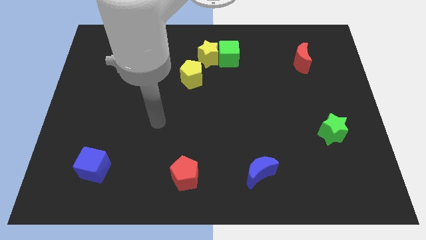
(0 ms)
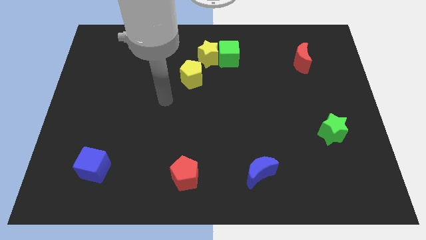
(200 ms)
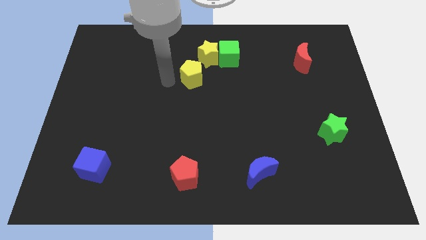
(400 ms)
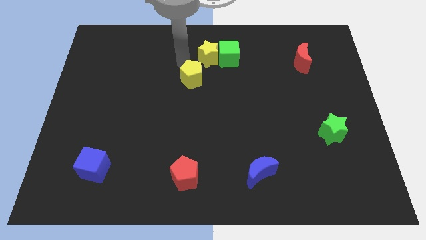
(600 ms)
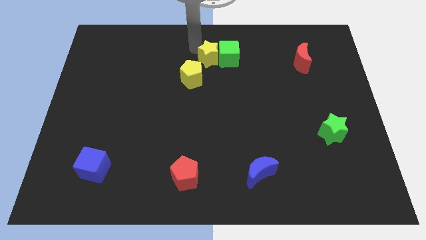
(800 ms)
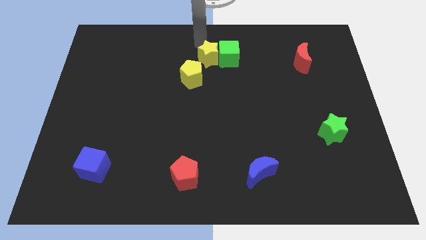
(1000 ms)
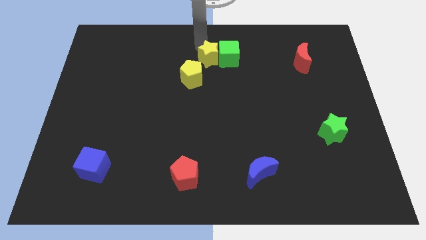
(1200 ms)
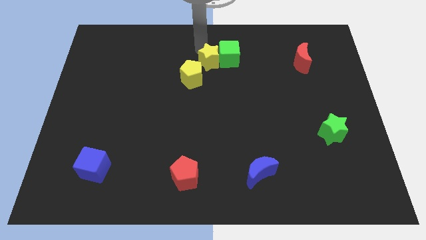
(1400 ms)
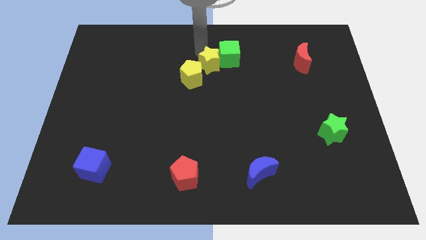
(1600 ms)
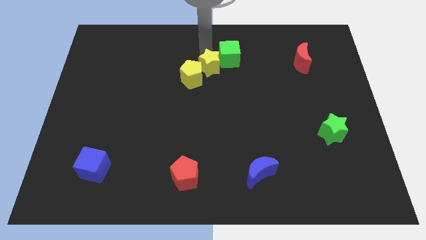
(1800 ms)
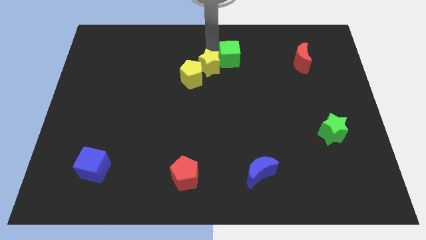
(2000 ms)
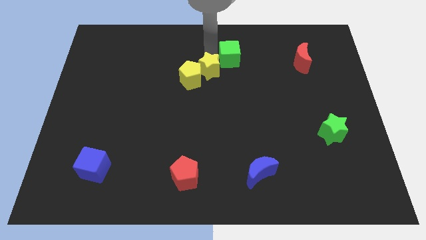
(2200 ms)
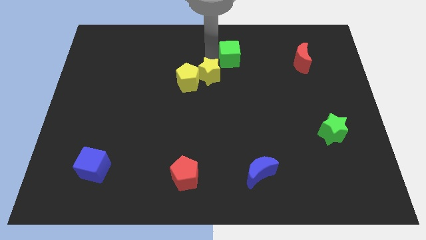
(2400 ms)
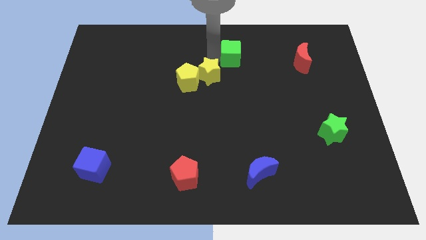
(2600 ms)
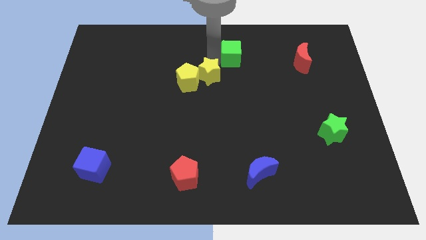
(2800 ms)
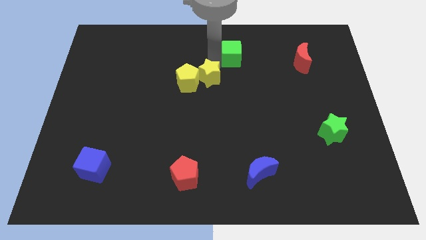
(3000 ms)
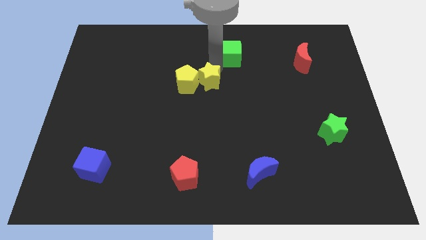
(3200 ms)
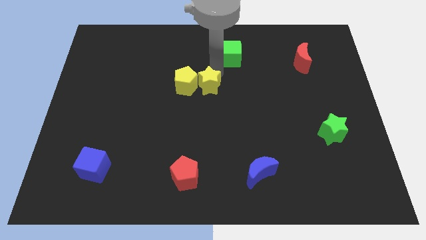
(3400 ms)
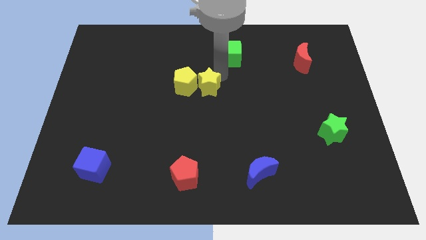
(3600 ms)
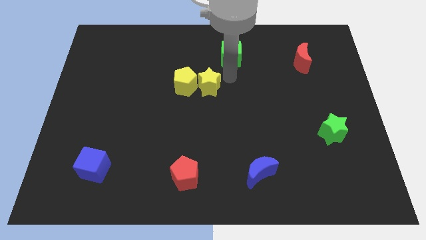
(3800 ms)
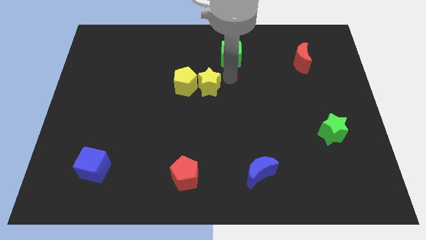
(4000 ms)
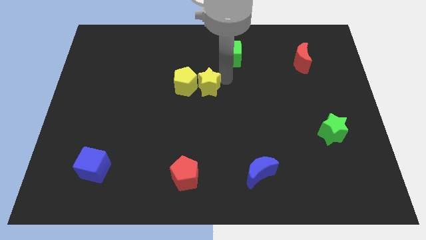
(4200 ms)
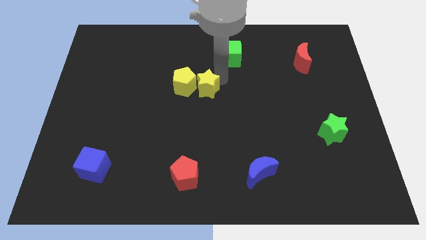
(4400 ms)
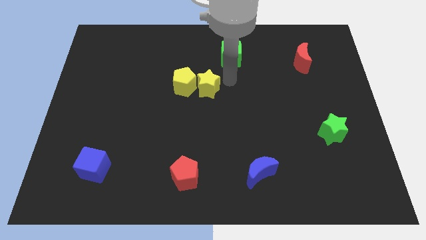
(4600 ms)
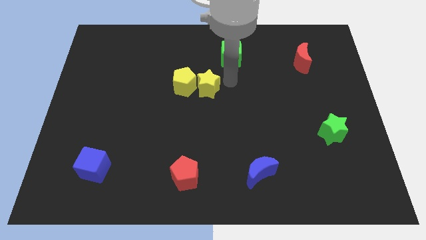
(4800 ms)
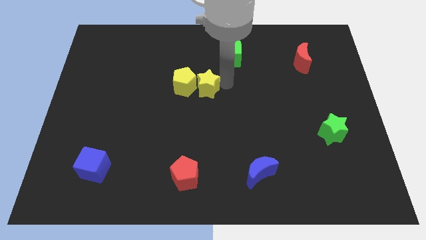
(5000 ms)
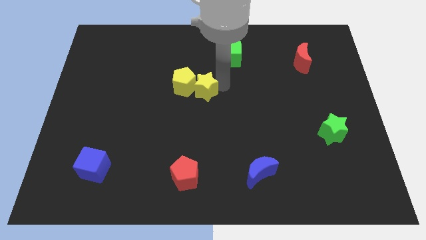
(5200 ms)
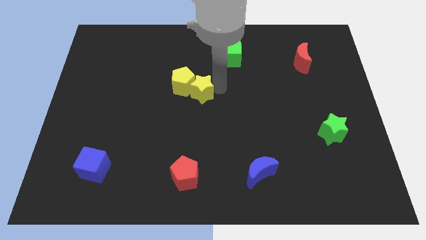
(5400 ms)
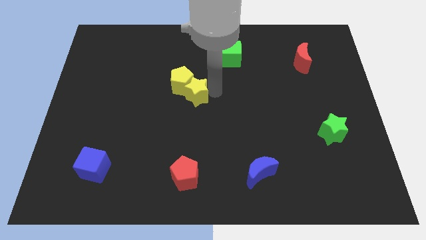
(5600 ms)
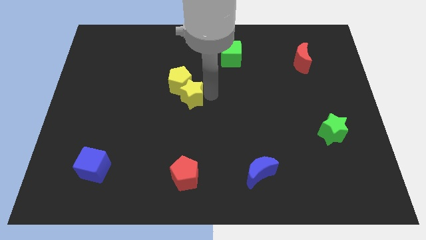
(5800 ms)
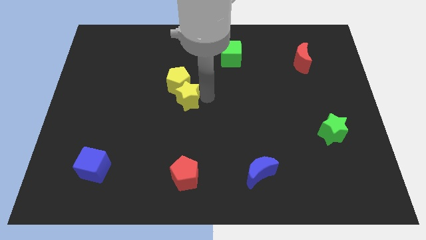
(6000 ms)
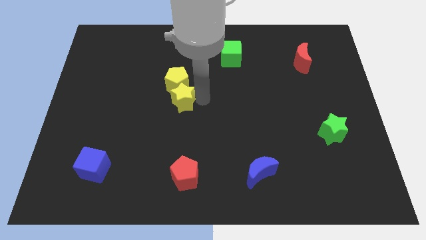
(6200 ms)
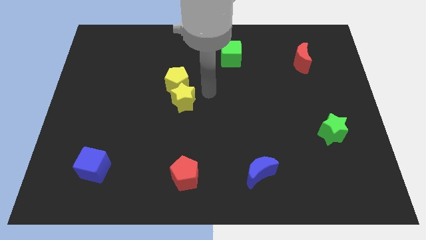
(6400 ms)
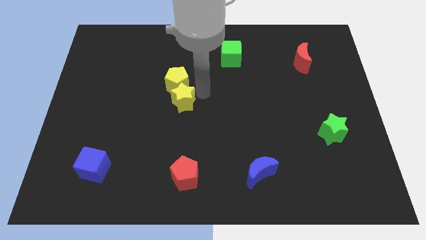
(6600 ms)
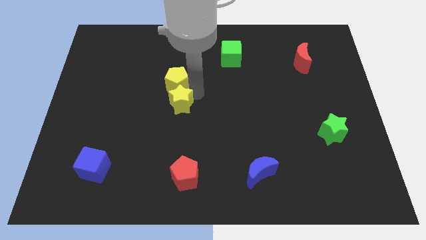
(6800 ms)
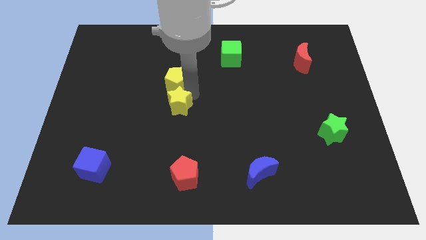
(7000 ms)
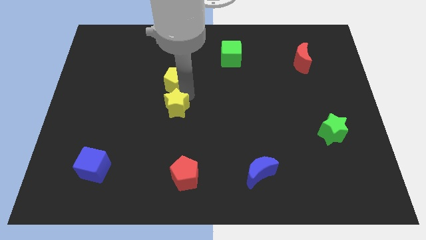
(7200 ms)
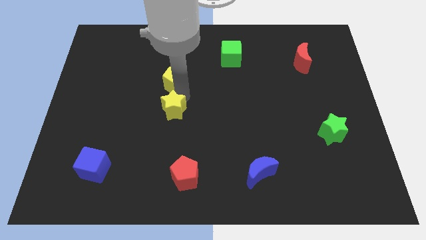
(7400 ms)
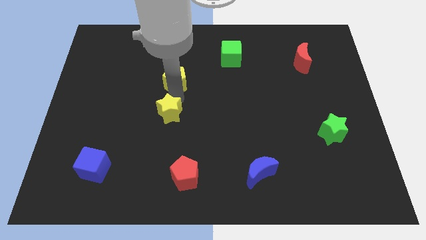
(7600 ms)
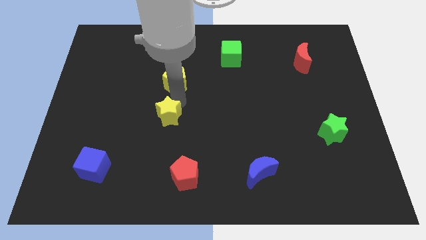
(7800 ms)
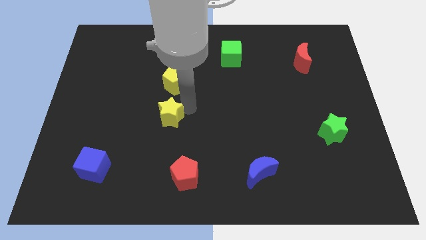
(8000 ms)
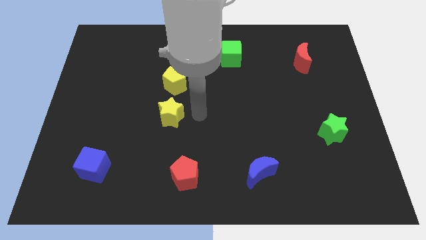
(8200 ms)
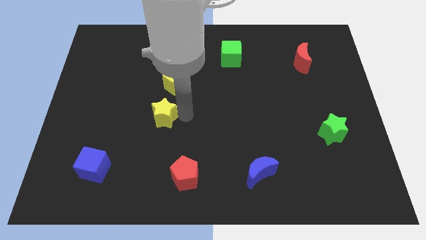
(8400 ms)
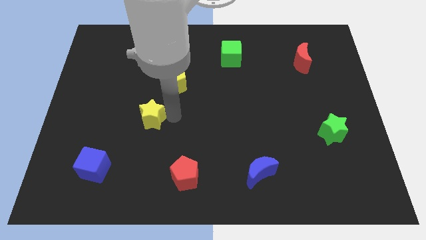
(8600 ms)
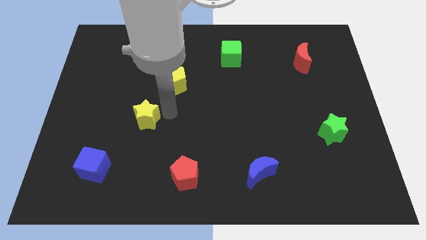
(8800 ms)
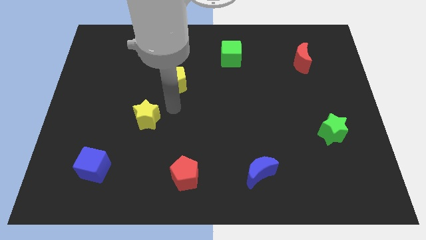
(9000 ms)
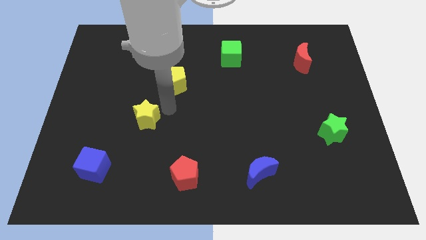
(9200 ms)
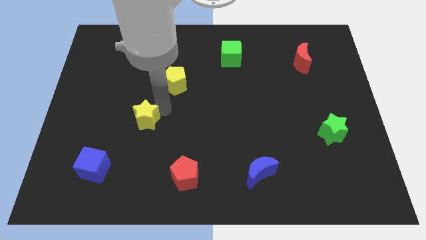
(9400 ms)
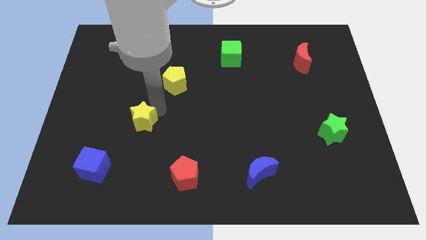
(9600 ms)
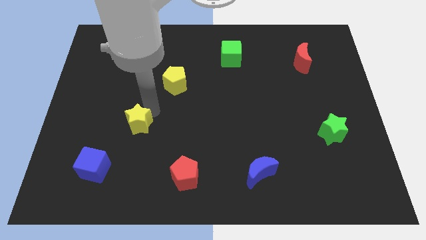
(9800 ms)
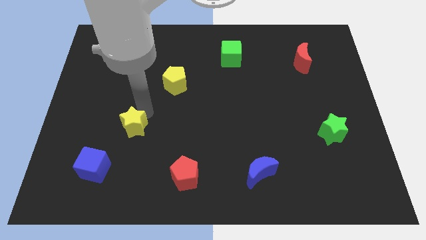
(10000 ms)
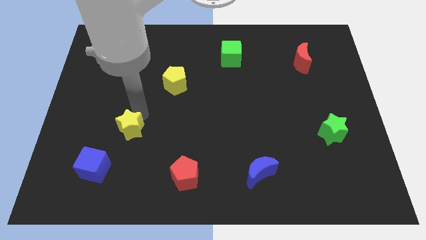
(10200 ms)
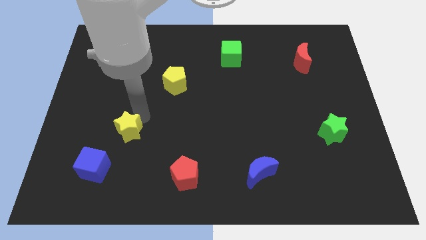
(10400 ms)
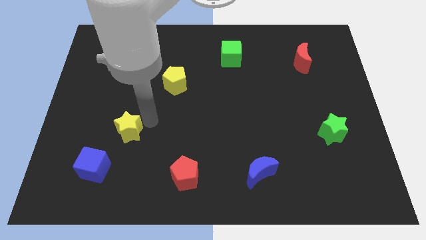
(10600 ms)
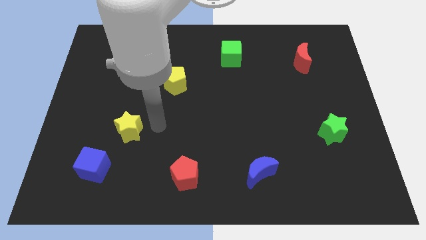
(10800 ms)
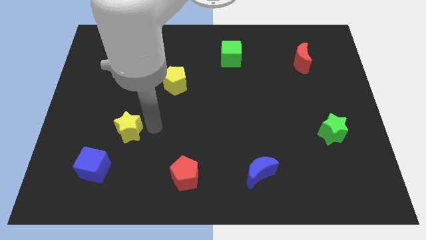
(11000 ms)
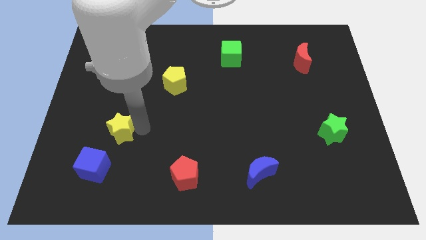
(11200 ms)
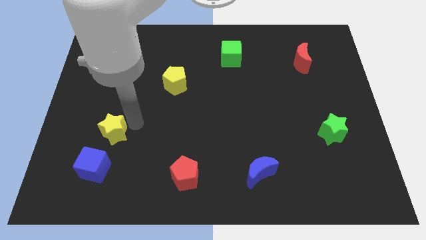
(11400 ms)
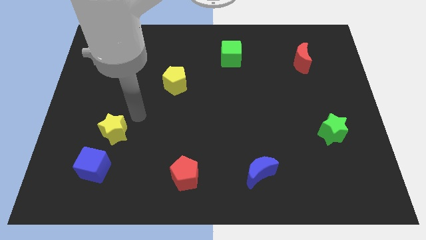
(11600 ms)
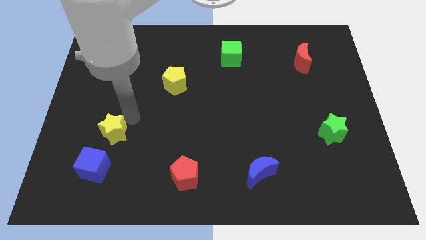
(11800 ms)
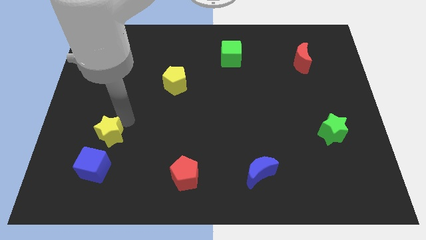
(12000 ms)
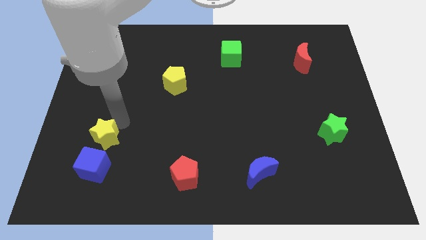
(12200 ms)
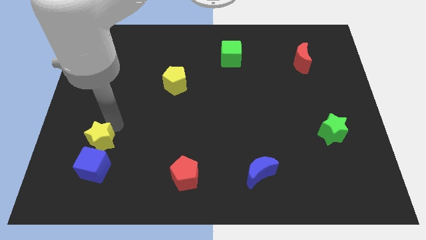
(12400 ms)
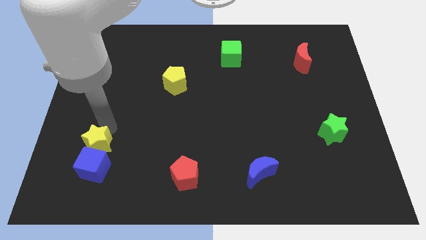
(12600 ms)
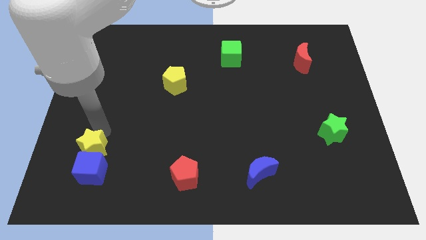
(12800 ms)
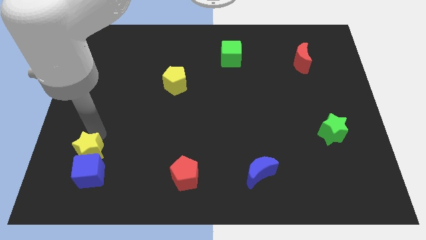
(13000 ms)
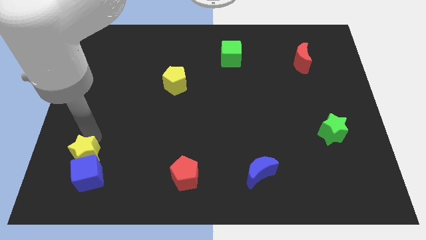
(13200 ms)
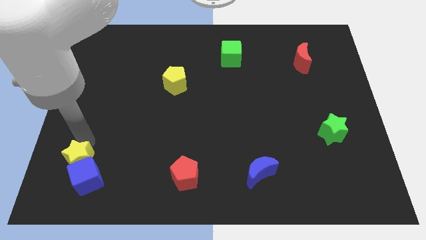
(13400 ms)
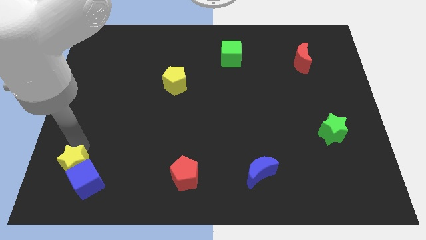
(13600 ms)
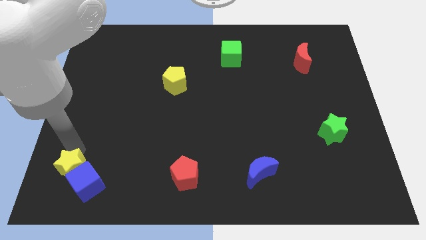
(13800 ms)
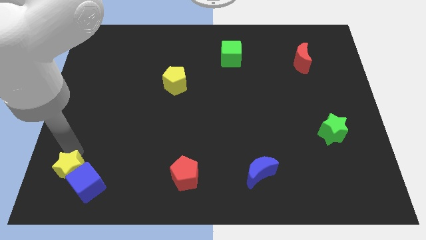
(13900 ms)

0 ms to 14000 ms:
put the yellow star to the bottom left corner

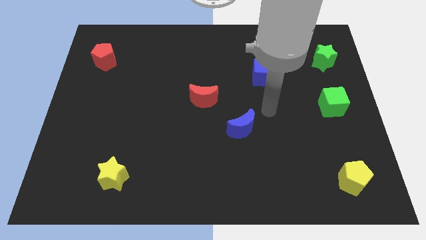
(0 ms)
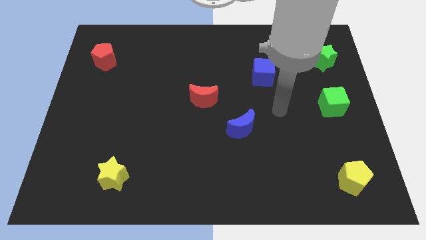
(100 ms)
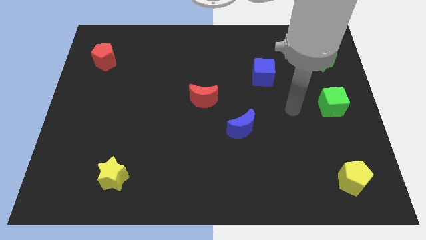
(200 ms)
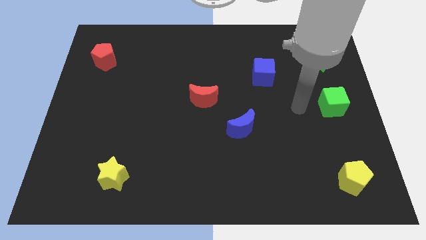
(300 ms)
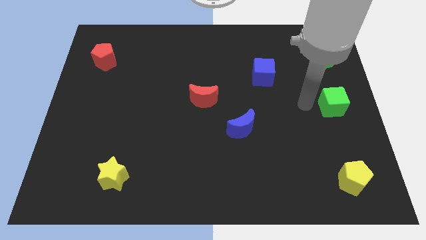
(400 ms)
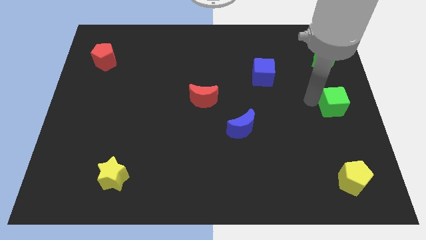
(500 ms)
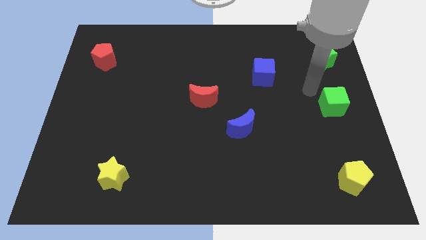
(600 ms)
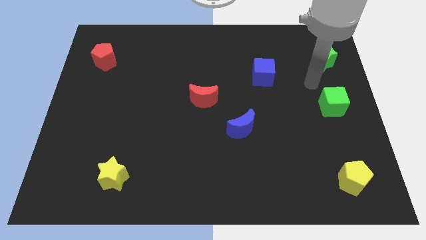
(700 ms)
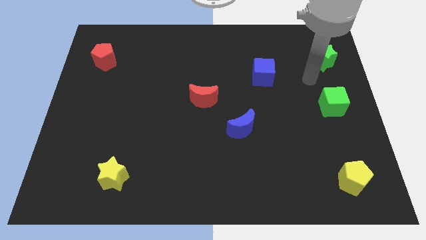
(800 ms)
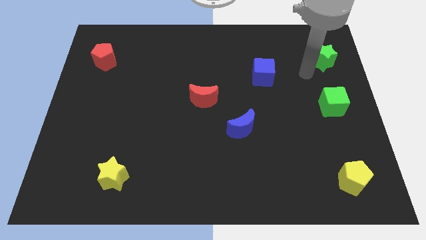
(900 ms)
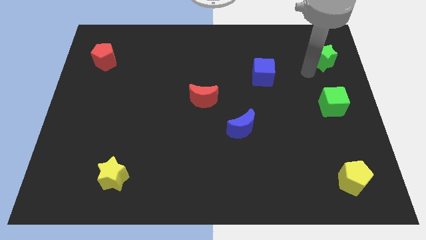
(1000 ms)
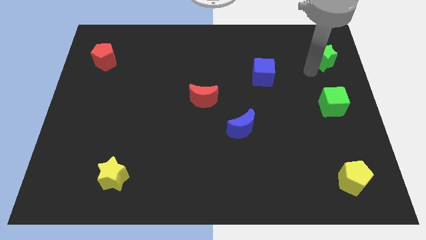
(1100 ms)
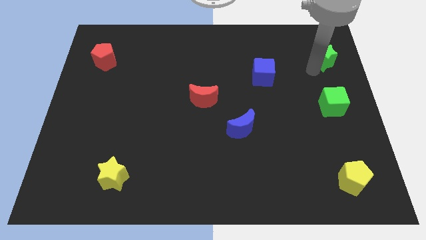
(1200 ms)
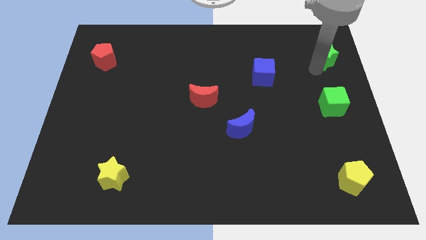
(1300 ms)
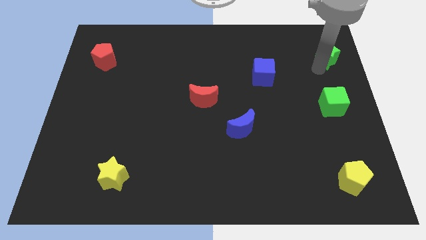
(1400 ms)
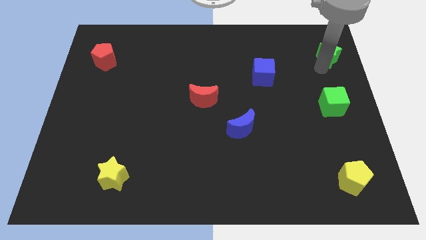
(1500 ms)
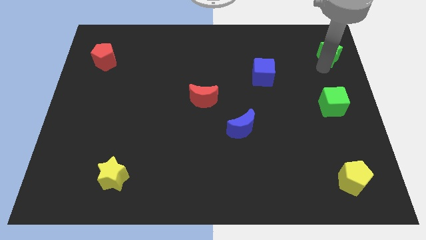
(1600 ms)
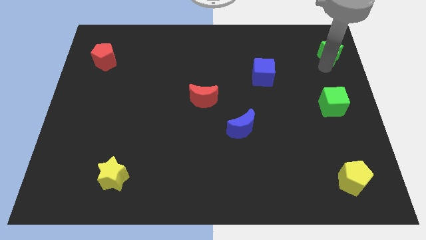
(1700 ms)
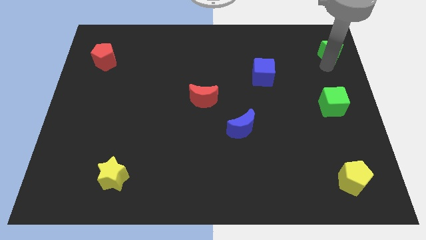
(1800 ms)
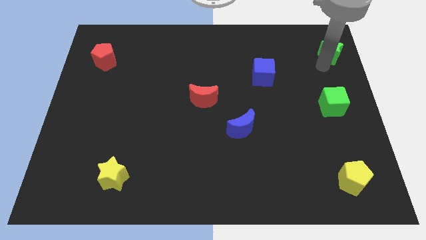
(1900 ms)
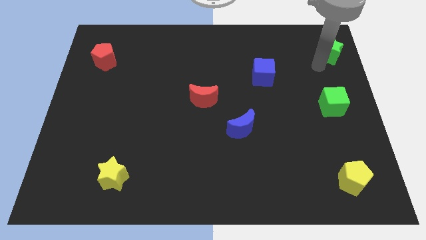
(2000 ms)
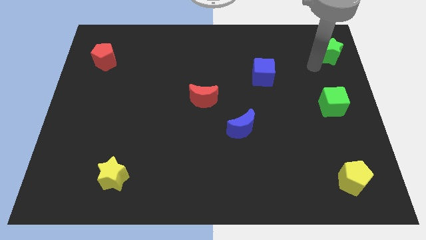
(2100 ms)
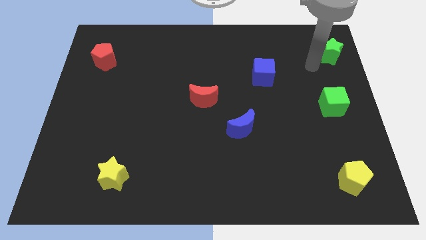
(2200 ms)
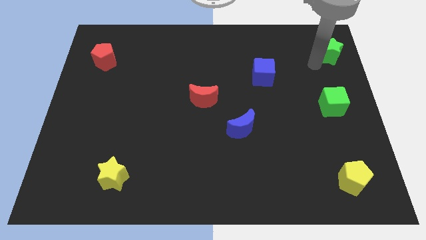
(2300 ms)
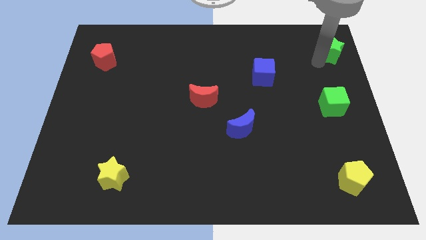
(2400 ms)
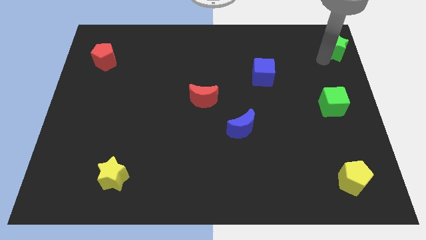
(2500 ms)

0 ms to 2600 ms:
put the green star to the upper right corner
